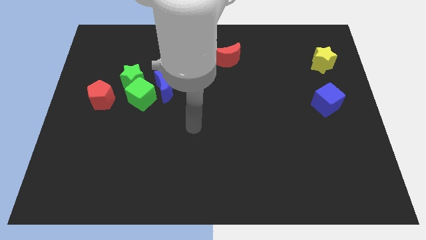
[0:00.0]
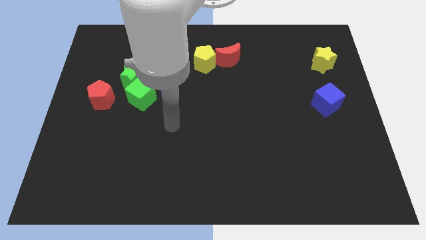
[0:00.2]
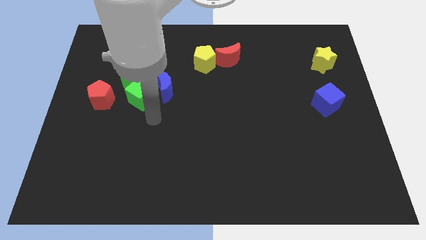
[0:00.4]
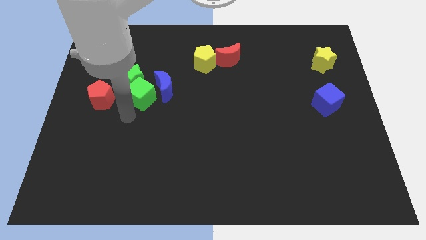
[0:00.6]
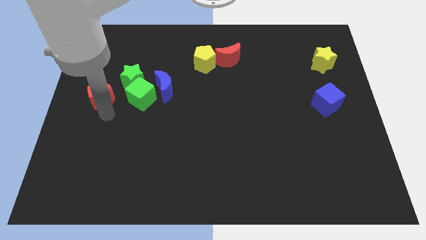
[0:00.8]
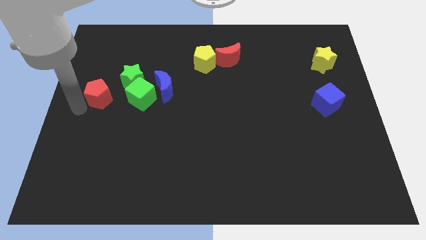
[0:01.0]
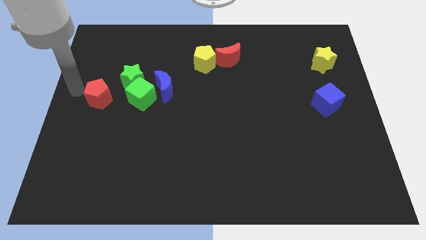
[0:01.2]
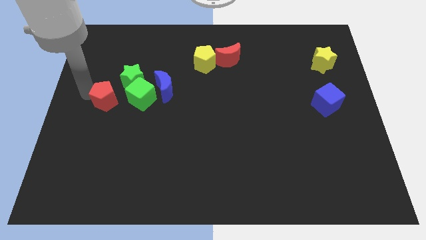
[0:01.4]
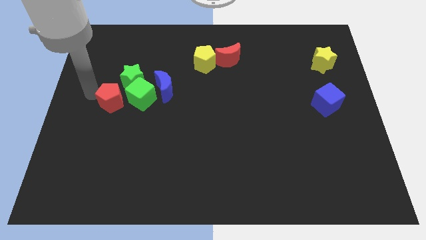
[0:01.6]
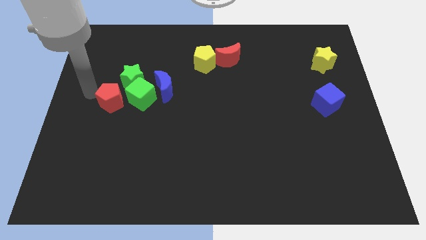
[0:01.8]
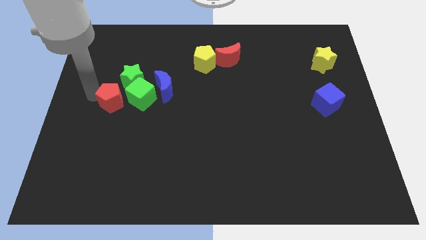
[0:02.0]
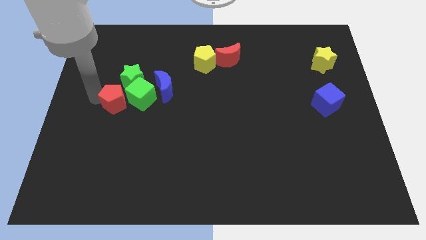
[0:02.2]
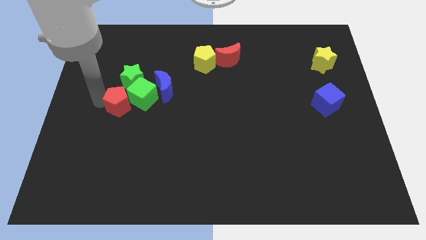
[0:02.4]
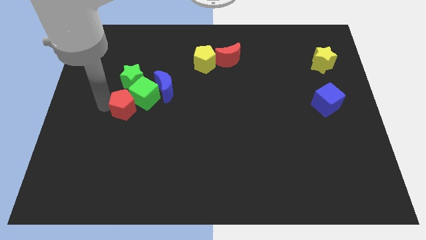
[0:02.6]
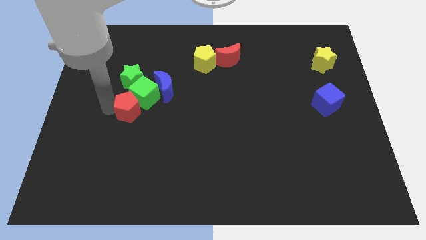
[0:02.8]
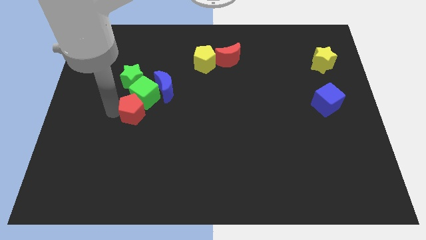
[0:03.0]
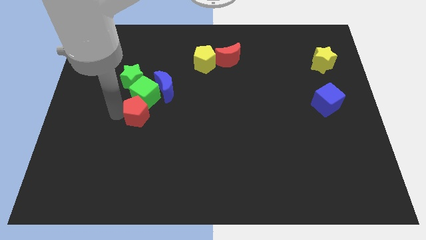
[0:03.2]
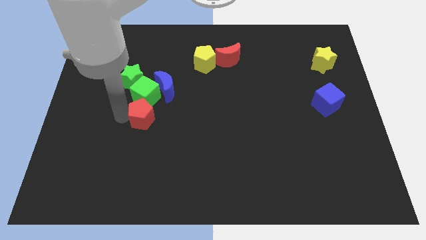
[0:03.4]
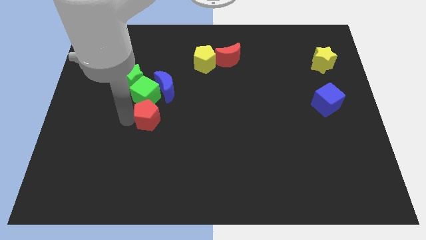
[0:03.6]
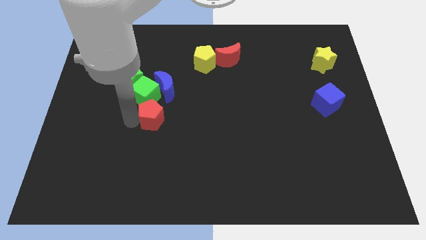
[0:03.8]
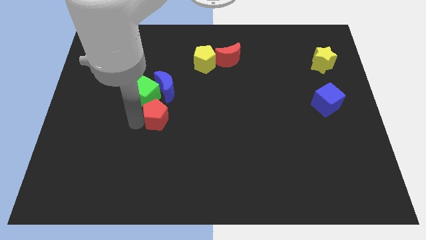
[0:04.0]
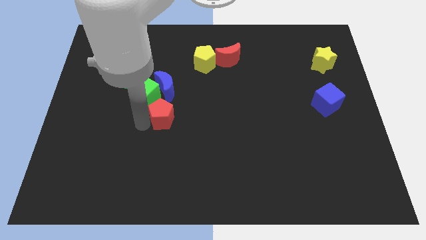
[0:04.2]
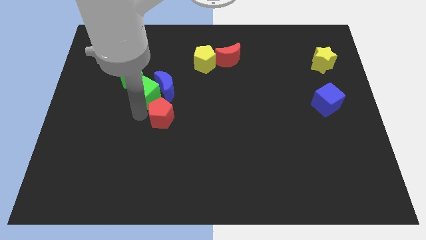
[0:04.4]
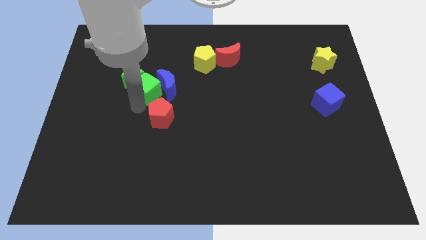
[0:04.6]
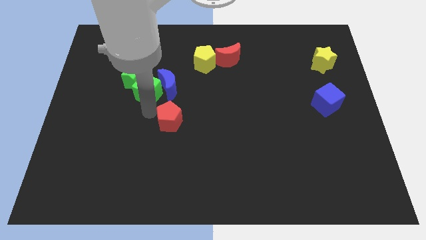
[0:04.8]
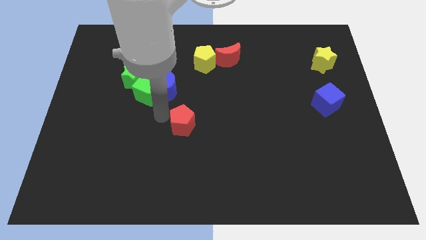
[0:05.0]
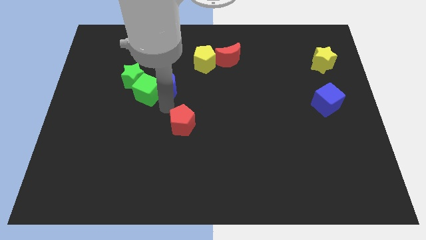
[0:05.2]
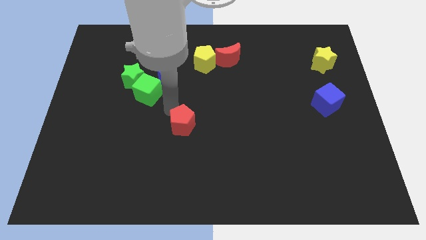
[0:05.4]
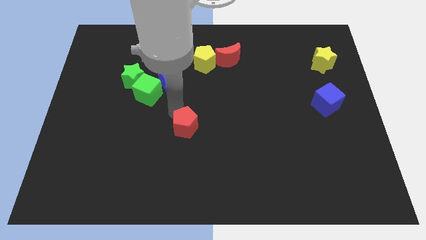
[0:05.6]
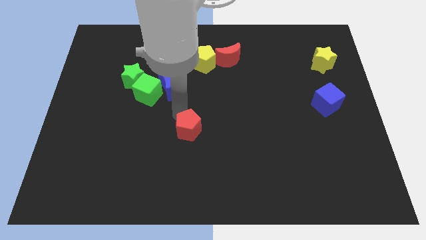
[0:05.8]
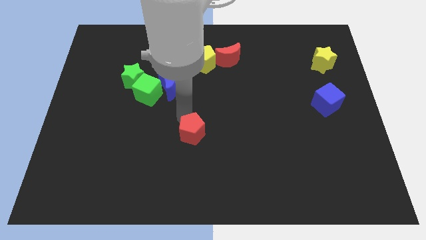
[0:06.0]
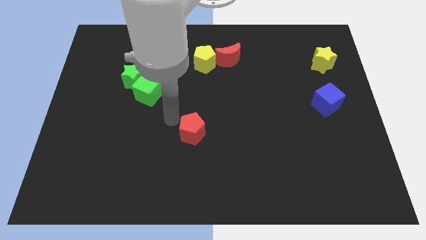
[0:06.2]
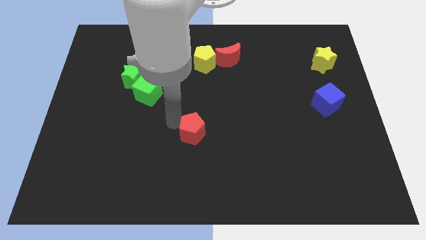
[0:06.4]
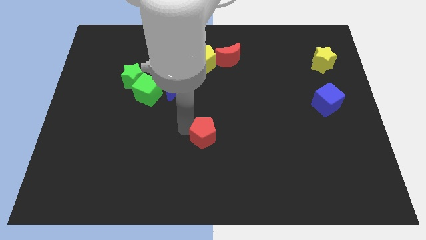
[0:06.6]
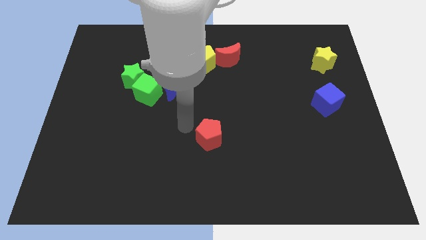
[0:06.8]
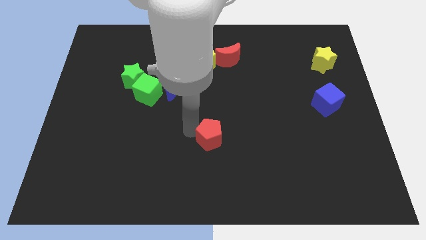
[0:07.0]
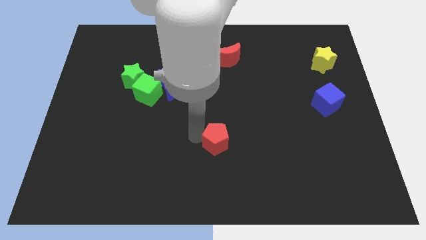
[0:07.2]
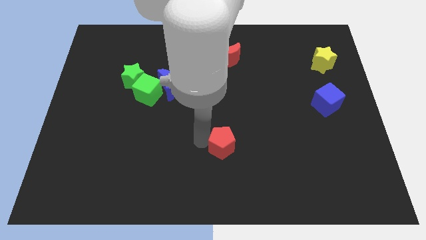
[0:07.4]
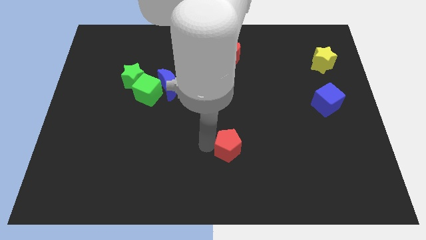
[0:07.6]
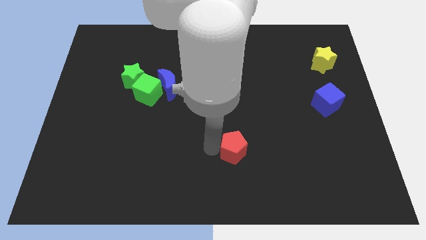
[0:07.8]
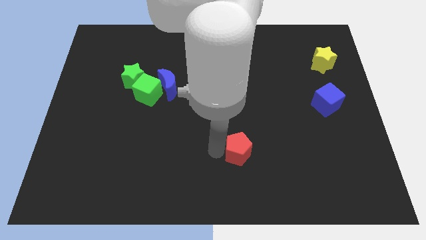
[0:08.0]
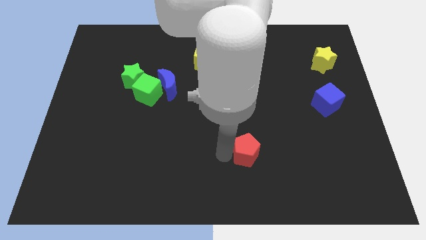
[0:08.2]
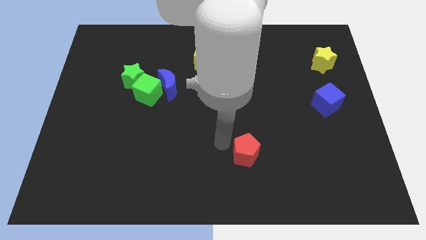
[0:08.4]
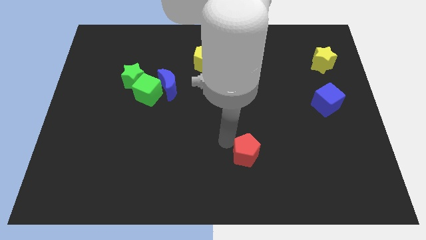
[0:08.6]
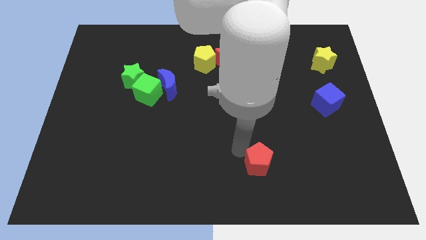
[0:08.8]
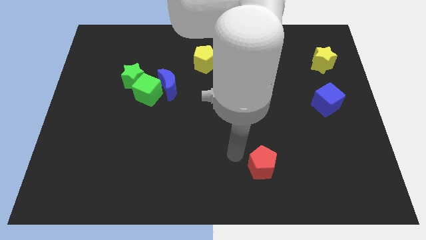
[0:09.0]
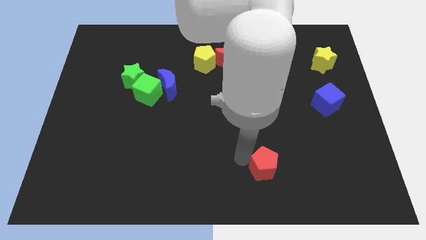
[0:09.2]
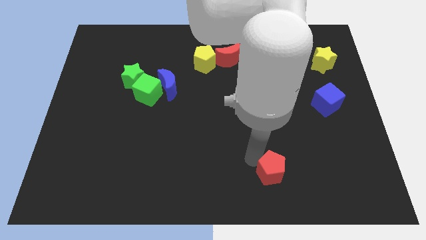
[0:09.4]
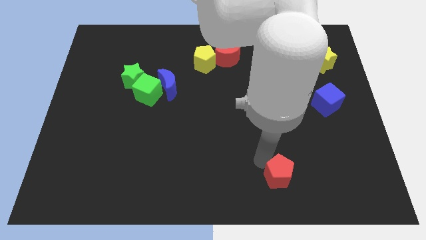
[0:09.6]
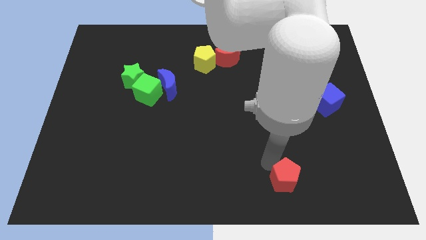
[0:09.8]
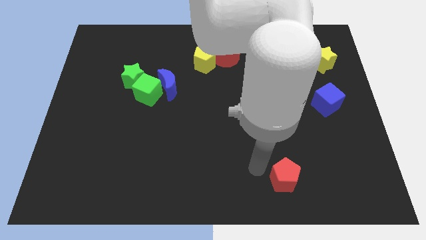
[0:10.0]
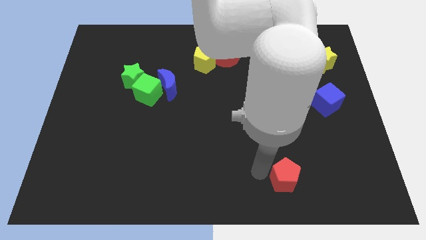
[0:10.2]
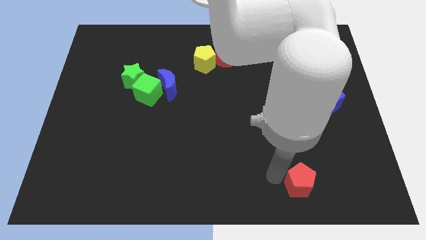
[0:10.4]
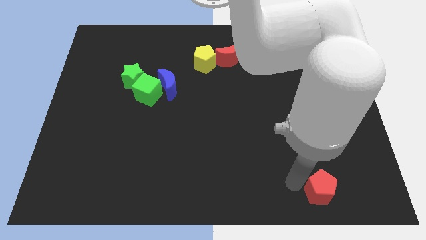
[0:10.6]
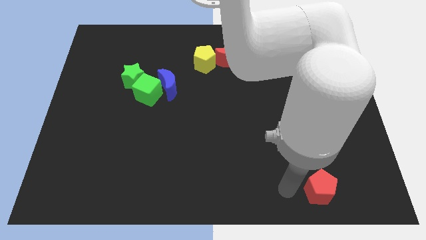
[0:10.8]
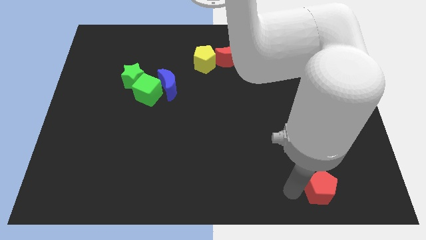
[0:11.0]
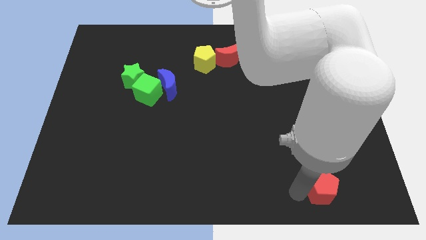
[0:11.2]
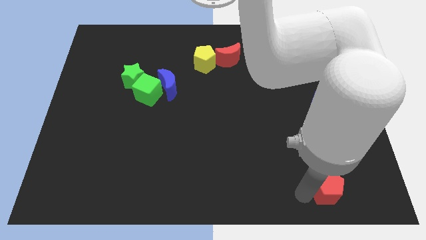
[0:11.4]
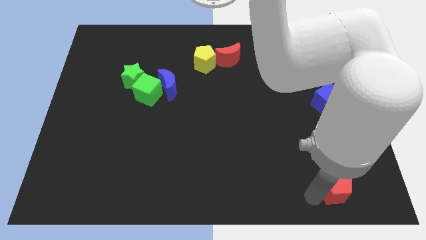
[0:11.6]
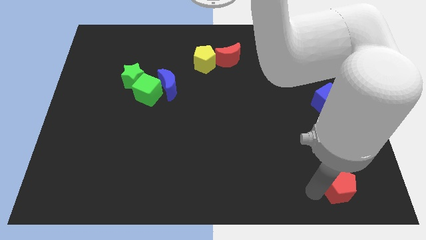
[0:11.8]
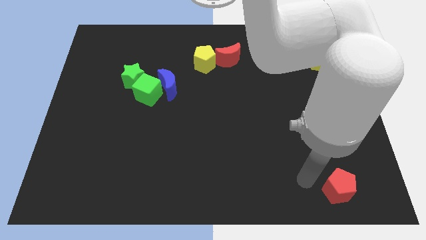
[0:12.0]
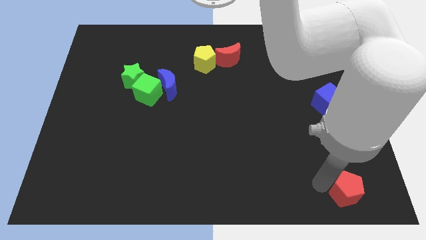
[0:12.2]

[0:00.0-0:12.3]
move the red pentagon to the bottom right corner
